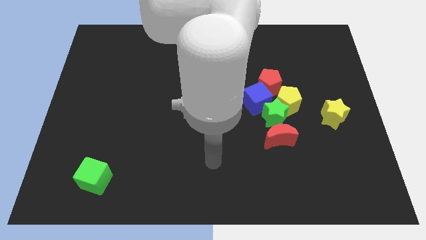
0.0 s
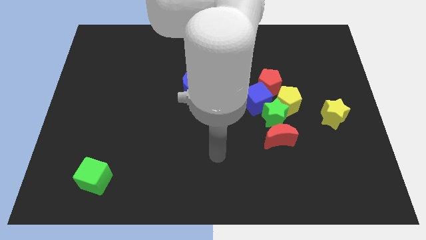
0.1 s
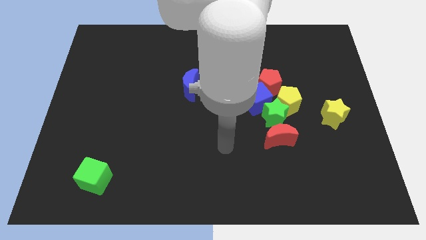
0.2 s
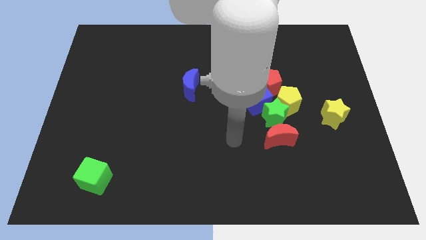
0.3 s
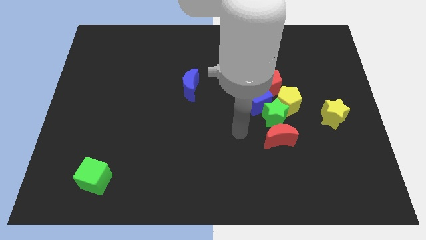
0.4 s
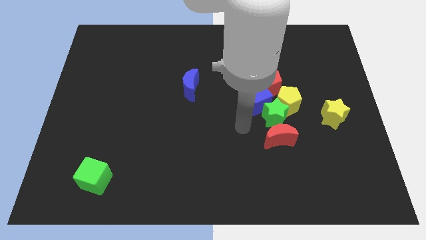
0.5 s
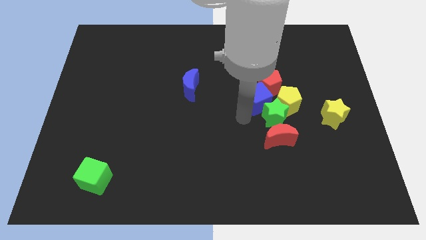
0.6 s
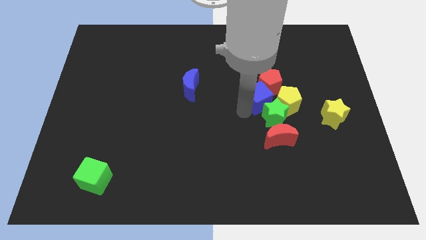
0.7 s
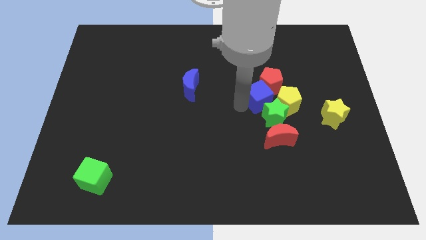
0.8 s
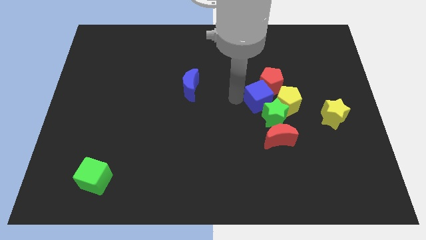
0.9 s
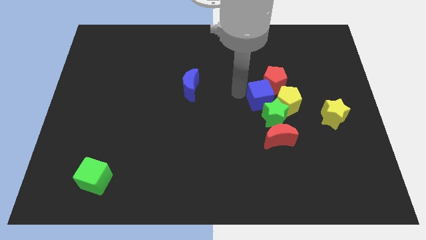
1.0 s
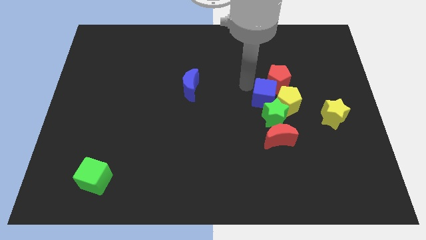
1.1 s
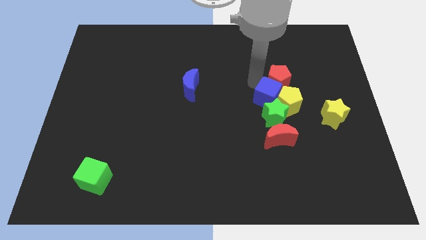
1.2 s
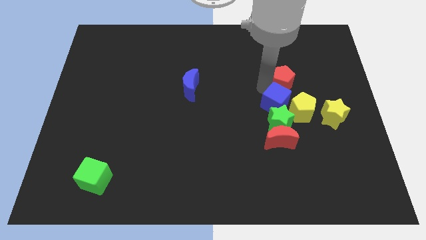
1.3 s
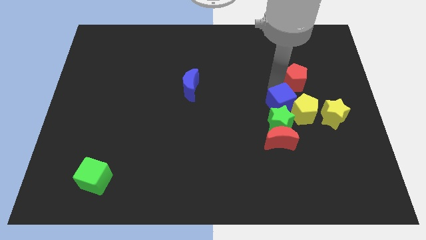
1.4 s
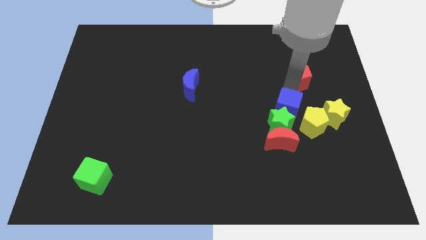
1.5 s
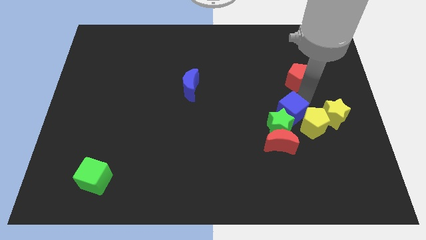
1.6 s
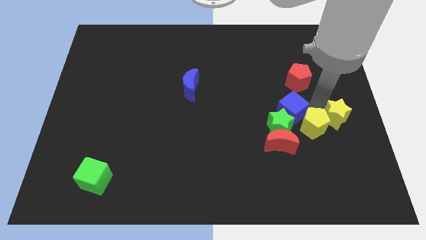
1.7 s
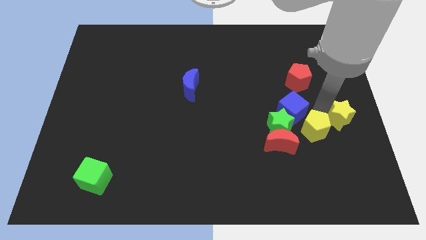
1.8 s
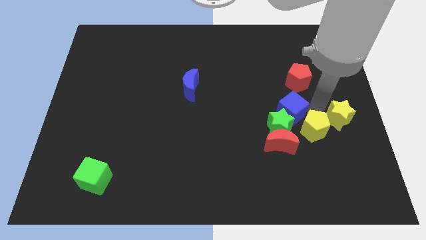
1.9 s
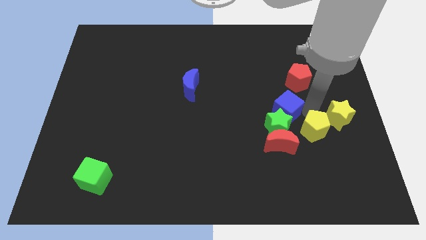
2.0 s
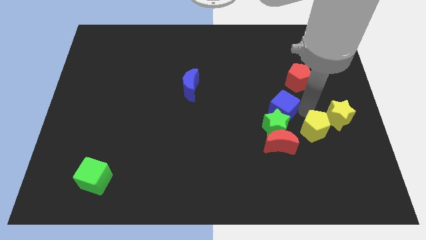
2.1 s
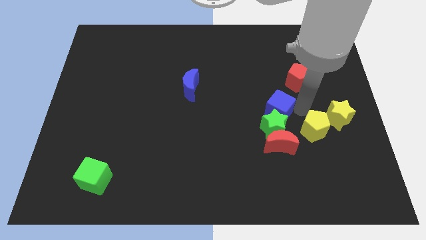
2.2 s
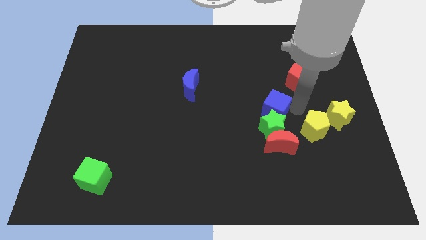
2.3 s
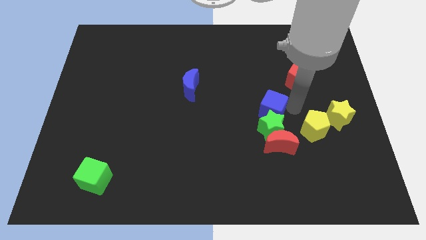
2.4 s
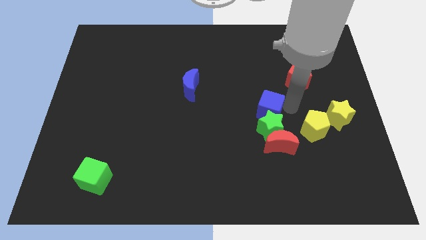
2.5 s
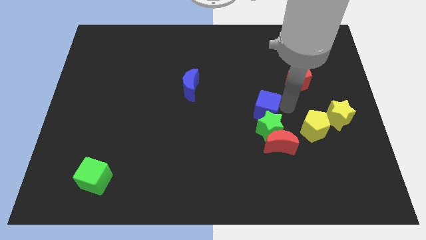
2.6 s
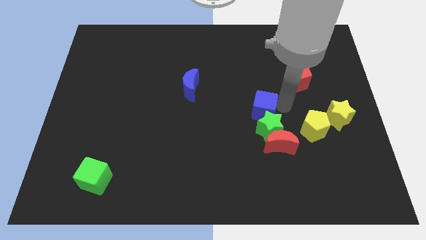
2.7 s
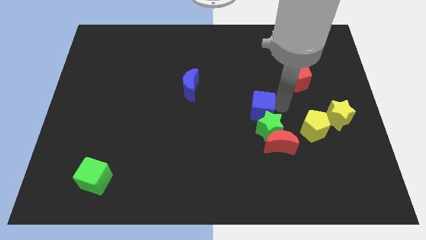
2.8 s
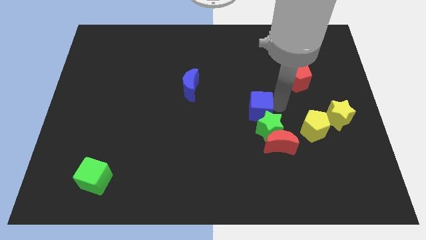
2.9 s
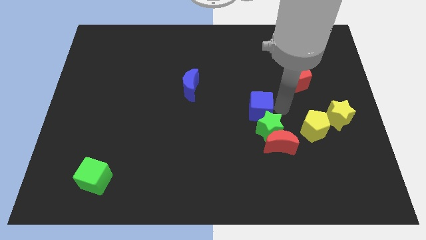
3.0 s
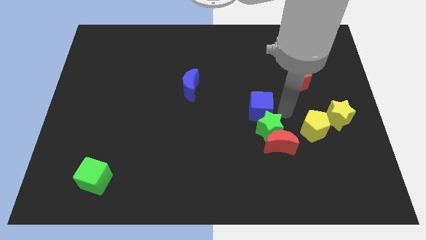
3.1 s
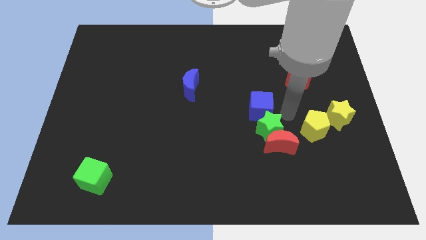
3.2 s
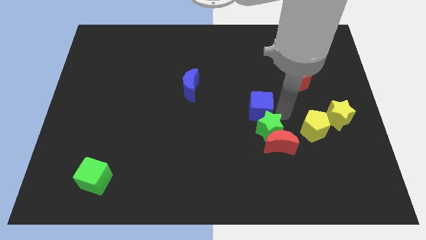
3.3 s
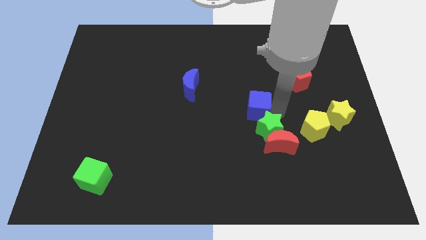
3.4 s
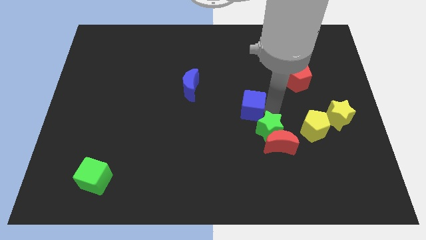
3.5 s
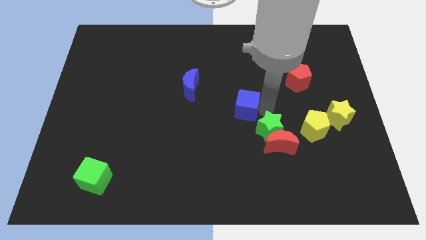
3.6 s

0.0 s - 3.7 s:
separate the blue cube from the green star, red pentagon, and yellow pentagon

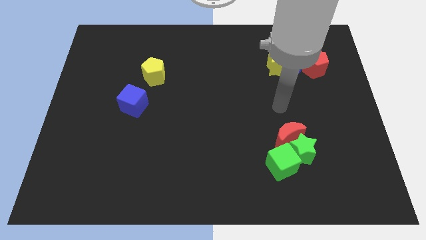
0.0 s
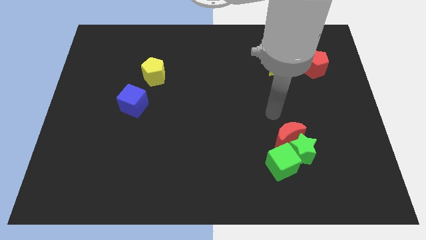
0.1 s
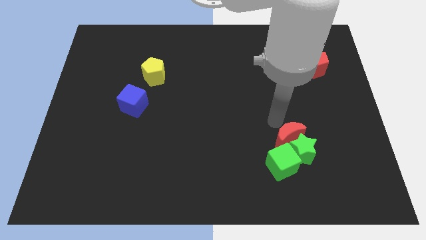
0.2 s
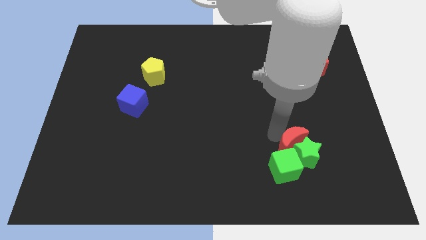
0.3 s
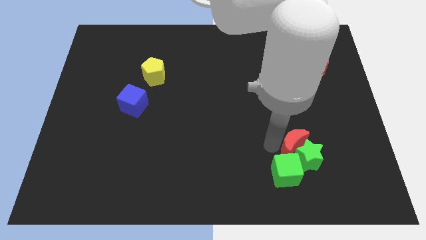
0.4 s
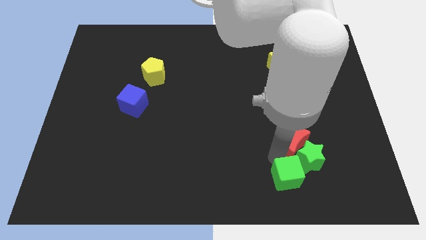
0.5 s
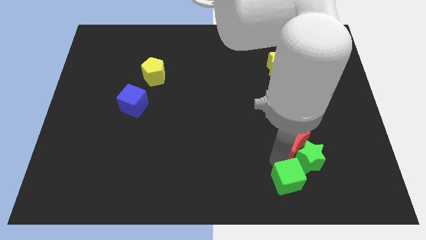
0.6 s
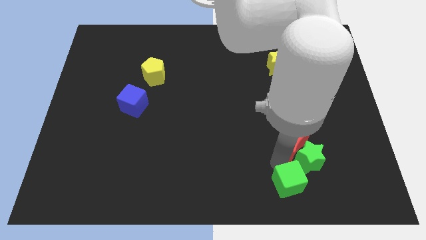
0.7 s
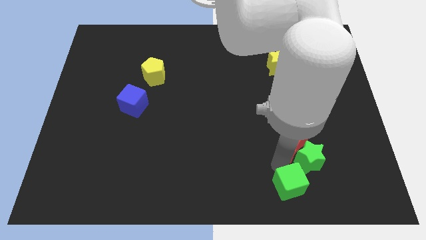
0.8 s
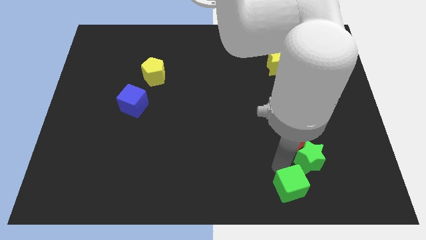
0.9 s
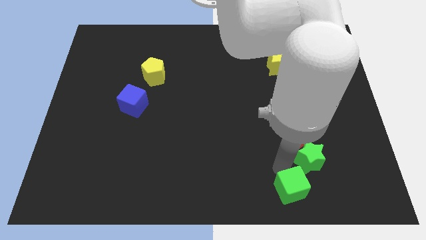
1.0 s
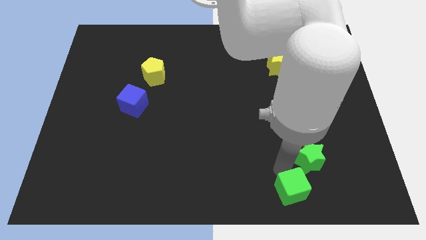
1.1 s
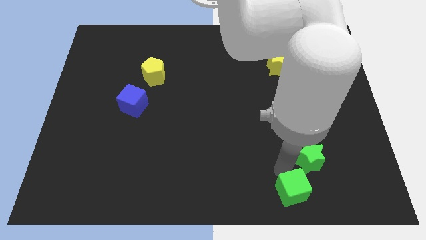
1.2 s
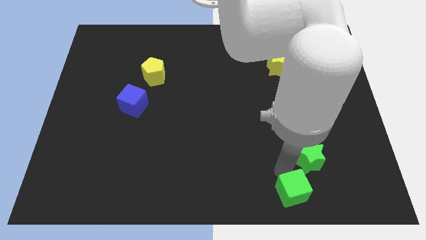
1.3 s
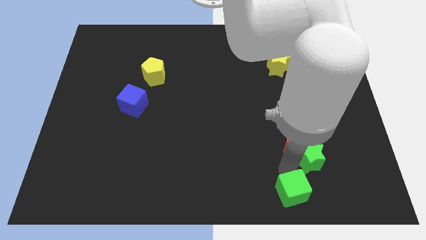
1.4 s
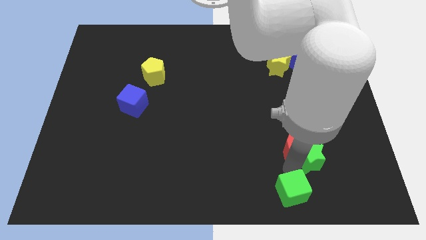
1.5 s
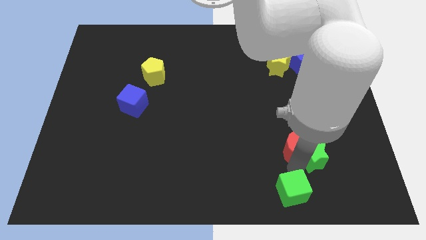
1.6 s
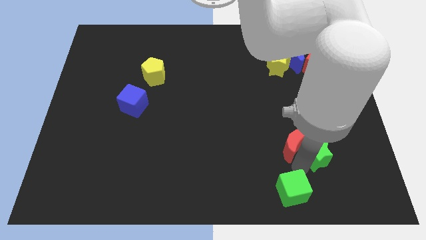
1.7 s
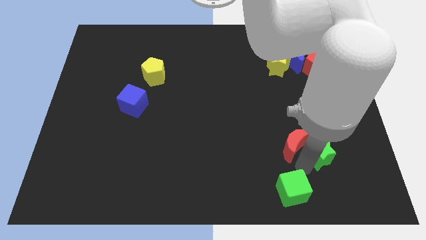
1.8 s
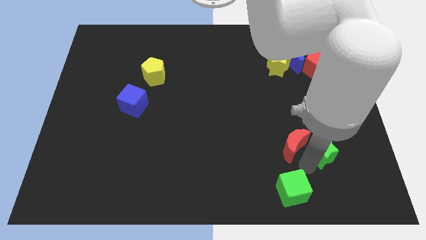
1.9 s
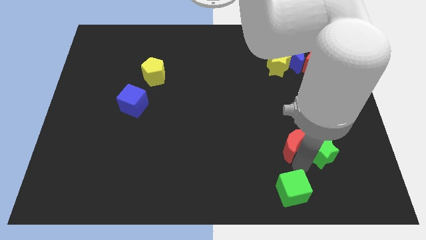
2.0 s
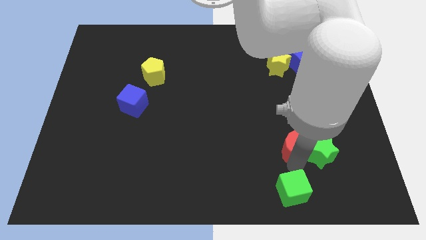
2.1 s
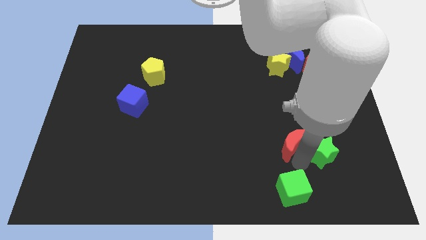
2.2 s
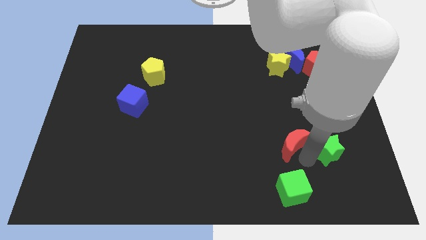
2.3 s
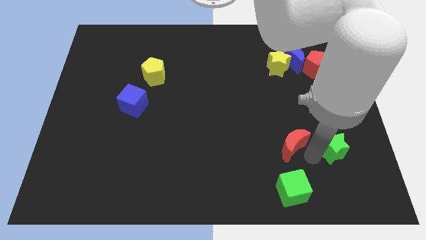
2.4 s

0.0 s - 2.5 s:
separate the green star from the red moon and green cube

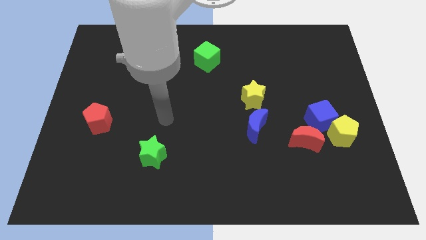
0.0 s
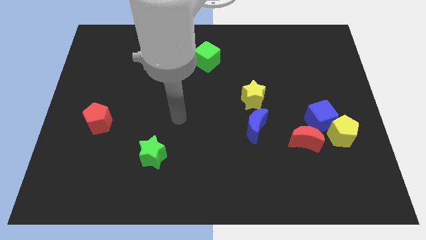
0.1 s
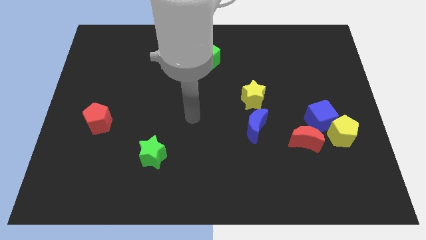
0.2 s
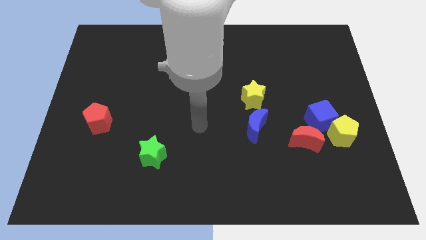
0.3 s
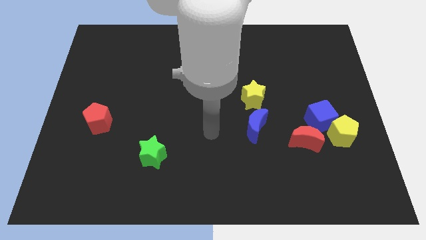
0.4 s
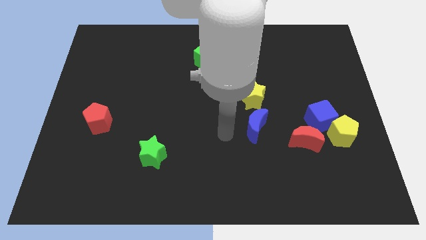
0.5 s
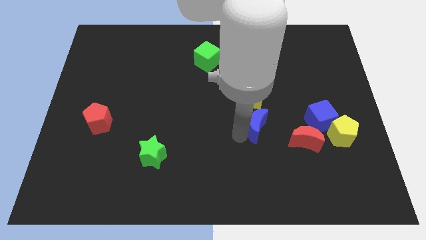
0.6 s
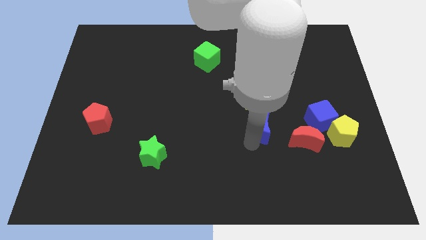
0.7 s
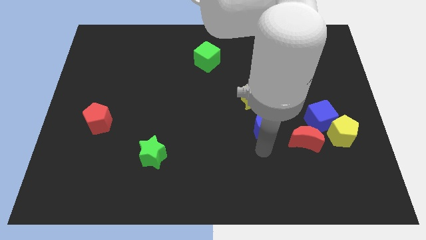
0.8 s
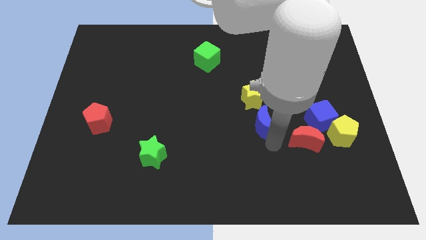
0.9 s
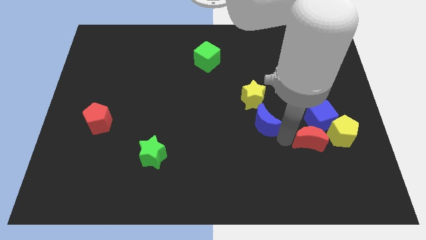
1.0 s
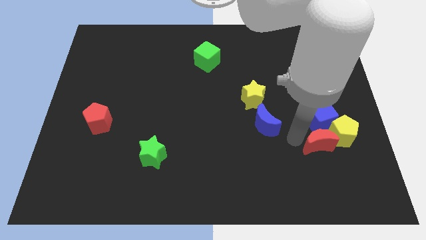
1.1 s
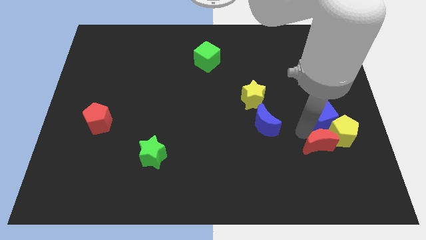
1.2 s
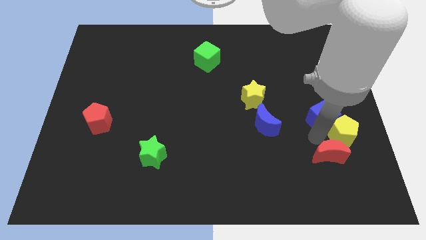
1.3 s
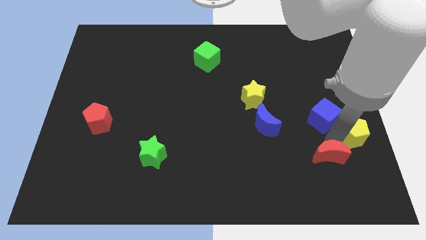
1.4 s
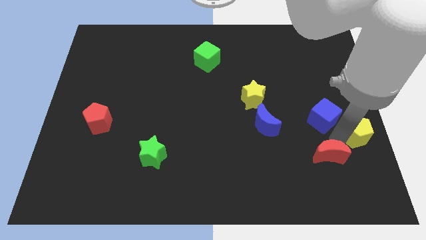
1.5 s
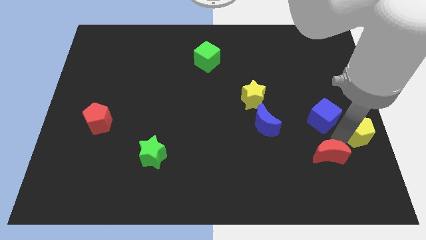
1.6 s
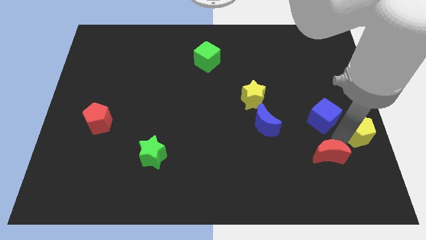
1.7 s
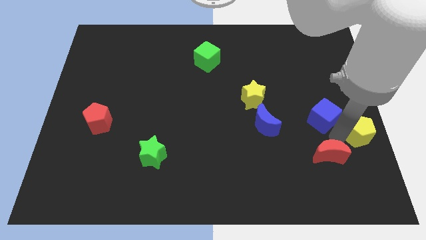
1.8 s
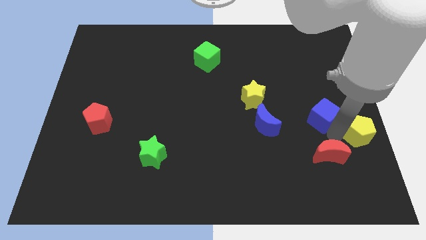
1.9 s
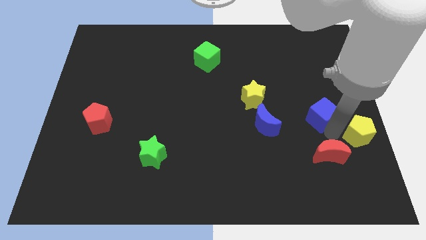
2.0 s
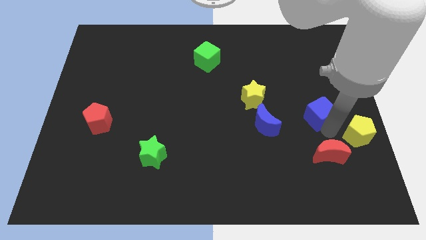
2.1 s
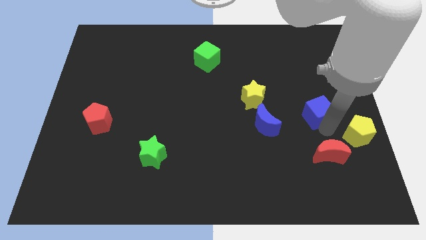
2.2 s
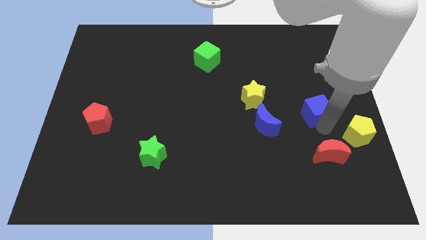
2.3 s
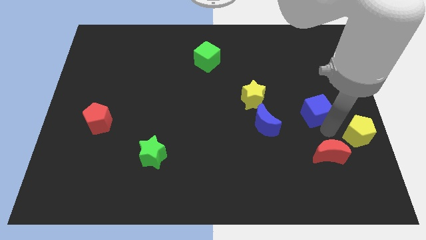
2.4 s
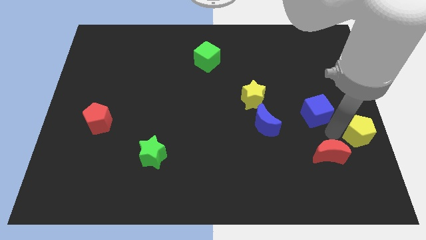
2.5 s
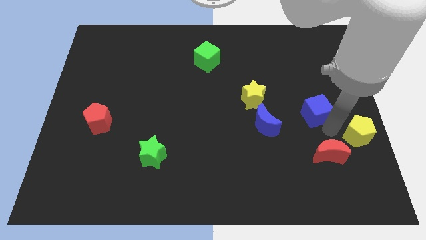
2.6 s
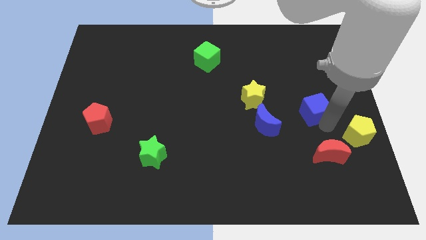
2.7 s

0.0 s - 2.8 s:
pull the blue cube apart from the yellow pentagon and red moon

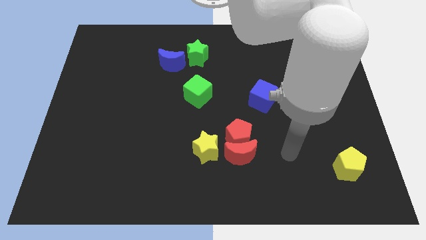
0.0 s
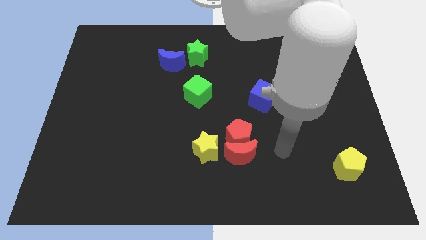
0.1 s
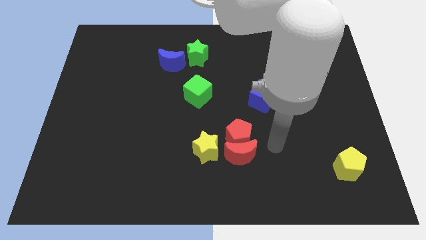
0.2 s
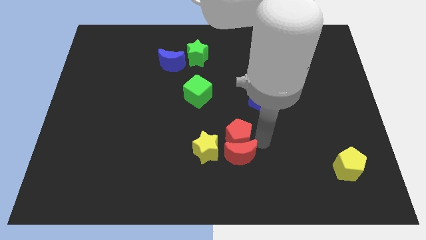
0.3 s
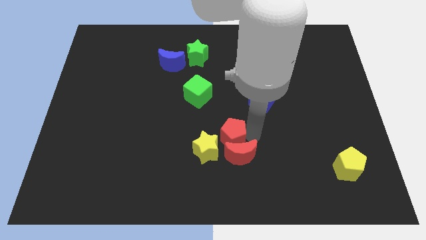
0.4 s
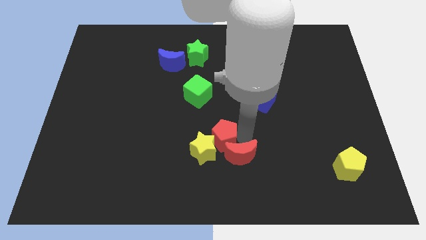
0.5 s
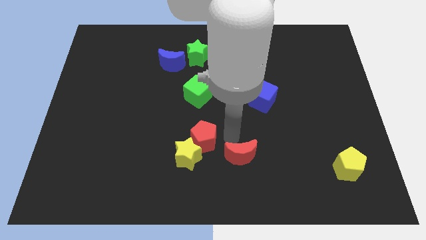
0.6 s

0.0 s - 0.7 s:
pull the red moon apart from the red pentagon and yellow star
